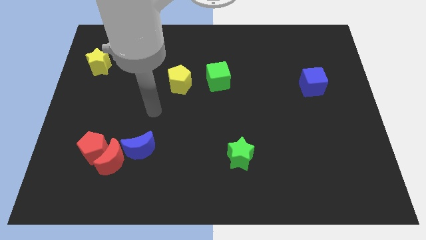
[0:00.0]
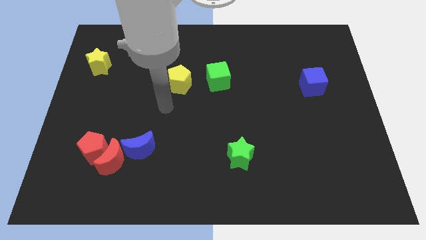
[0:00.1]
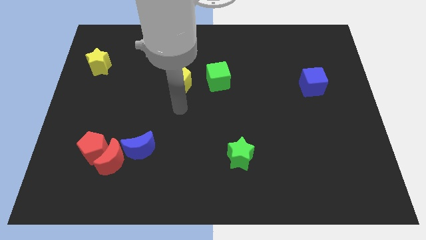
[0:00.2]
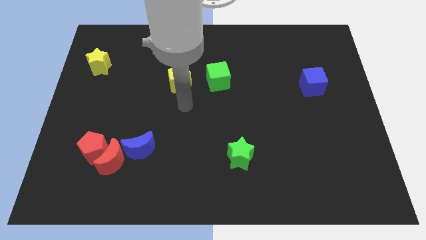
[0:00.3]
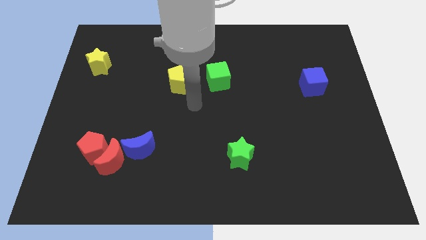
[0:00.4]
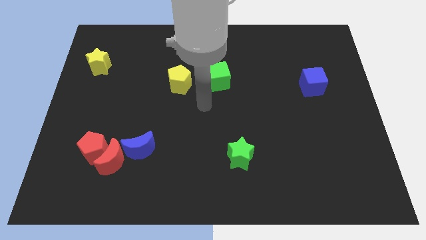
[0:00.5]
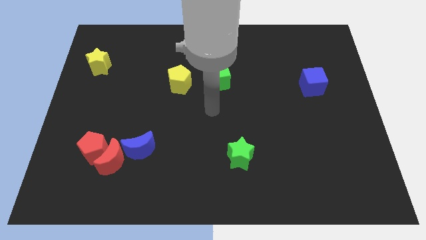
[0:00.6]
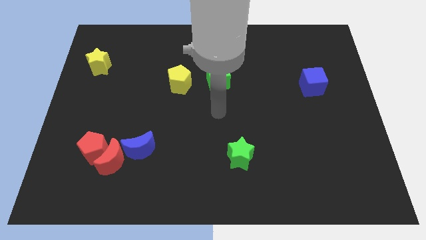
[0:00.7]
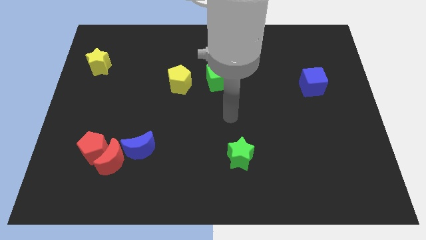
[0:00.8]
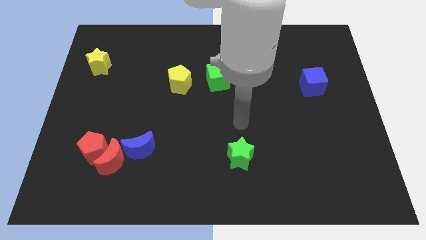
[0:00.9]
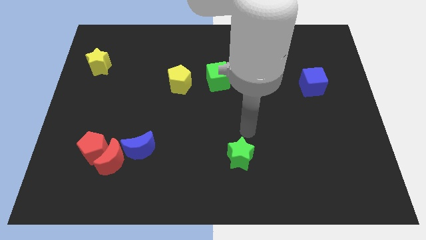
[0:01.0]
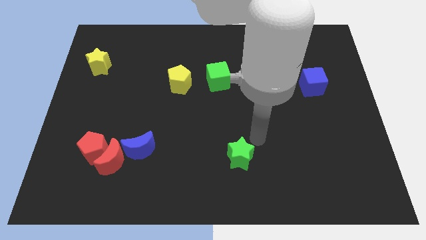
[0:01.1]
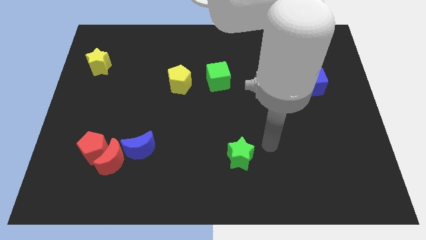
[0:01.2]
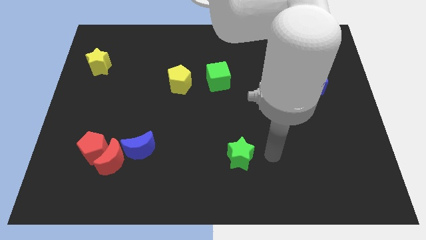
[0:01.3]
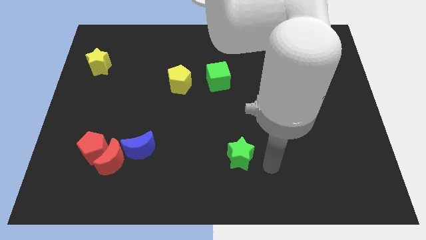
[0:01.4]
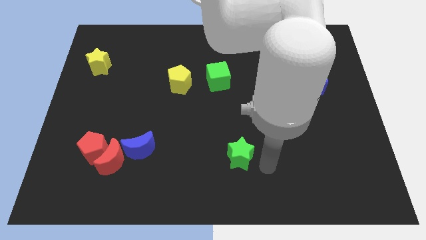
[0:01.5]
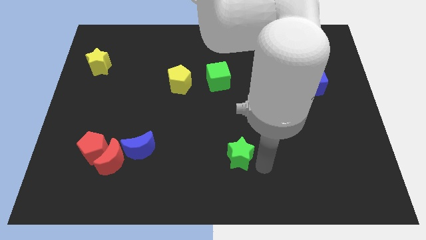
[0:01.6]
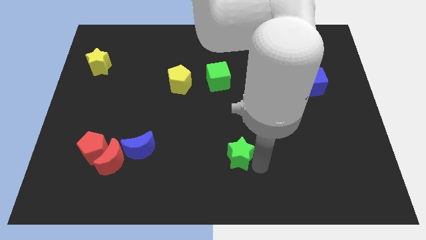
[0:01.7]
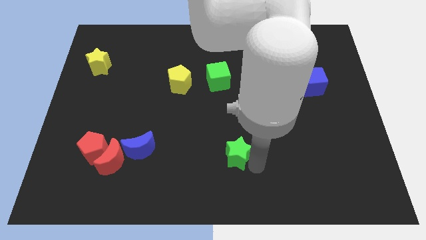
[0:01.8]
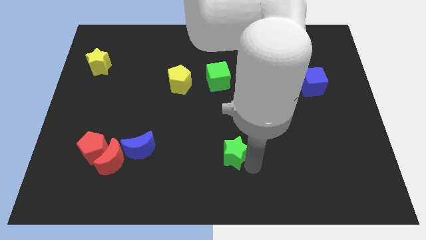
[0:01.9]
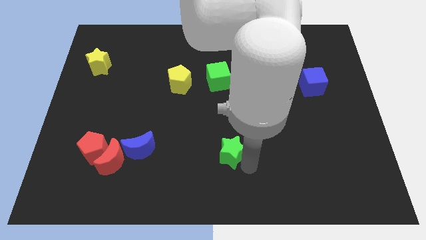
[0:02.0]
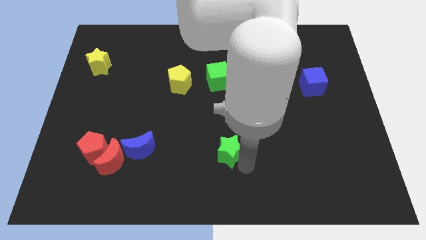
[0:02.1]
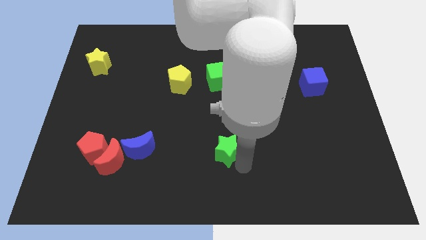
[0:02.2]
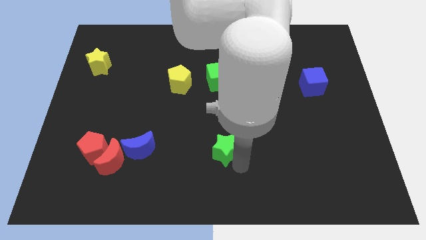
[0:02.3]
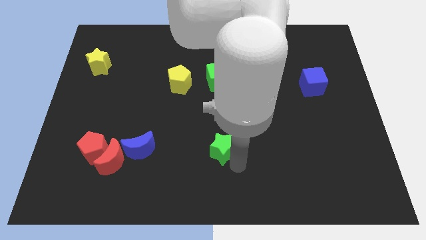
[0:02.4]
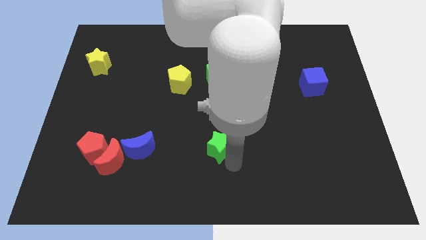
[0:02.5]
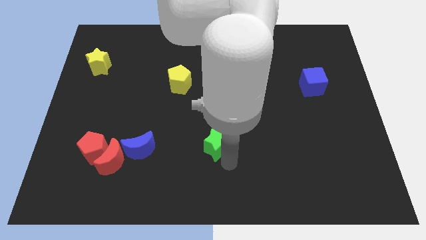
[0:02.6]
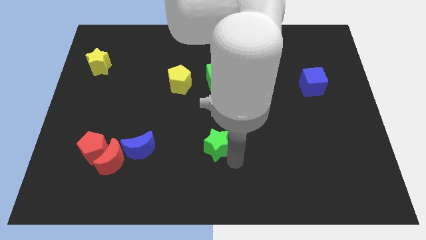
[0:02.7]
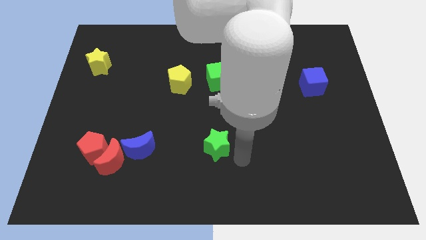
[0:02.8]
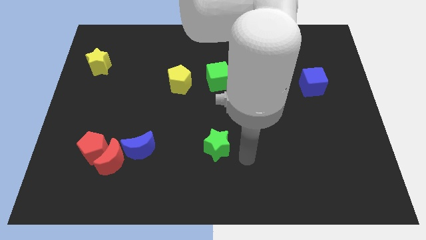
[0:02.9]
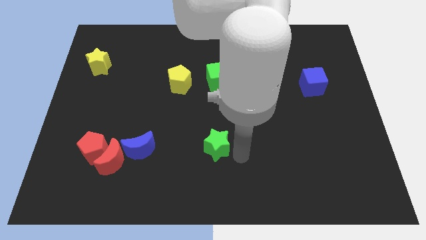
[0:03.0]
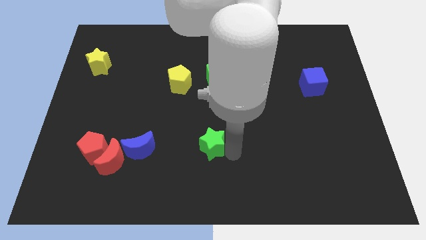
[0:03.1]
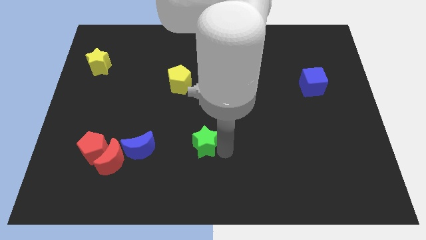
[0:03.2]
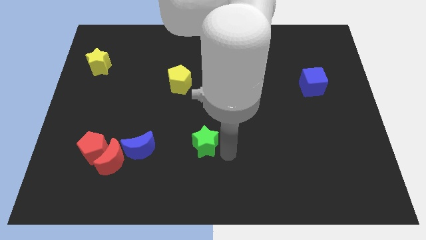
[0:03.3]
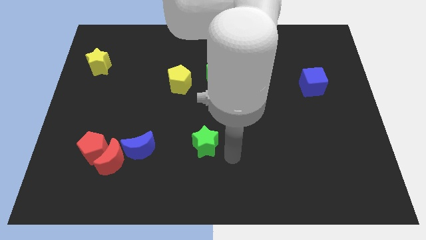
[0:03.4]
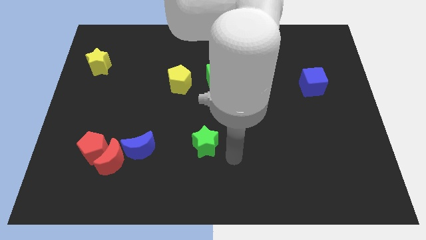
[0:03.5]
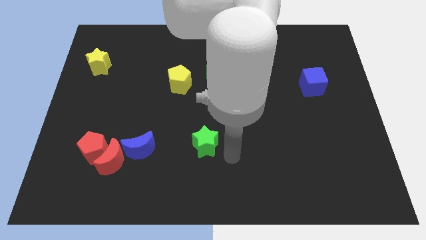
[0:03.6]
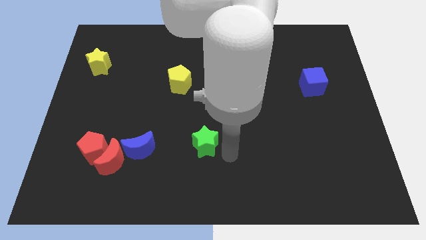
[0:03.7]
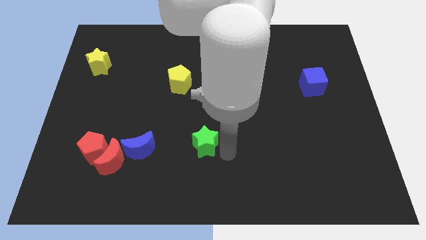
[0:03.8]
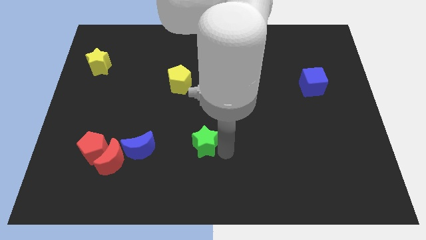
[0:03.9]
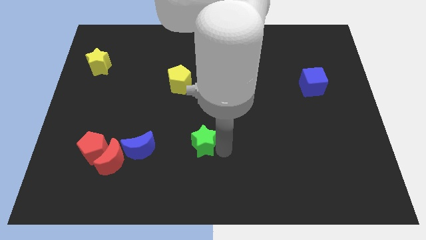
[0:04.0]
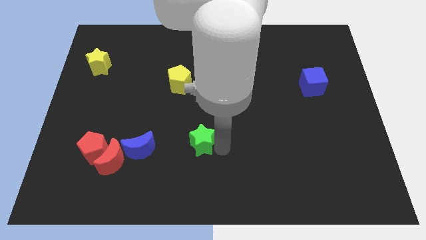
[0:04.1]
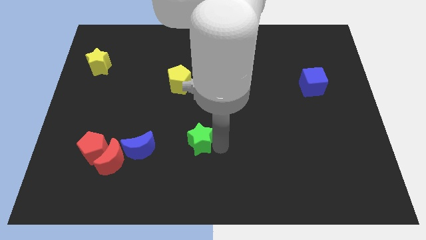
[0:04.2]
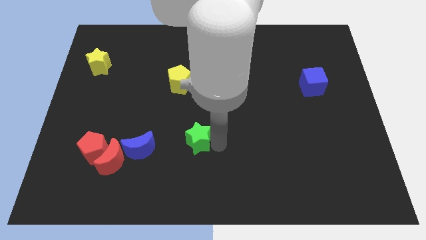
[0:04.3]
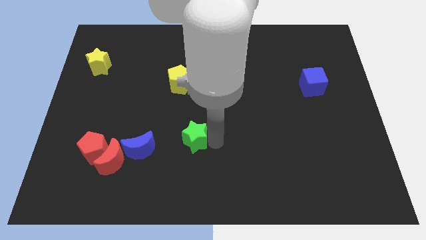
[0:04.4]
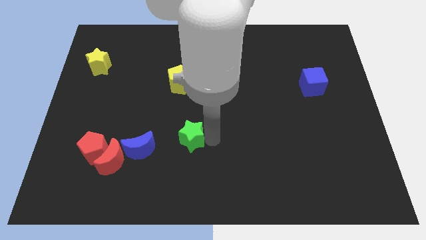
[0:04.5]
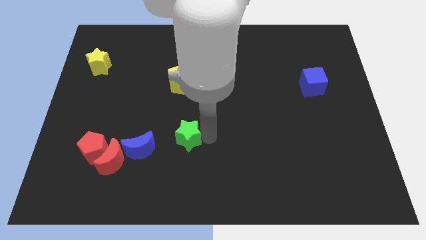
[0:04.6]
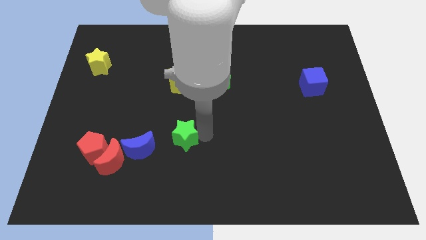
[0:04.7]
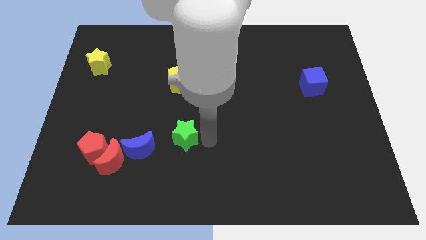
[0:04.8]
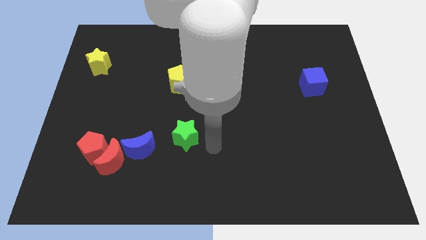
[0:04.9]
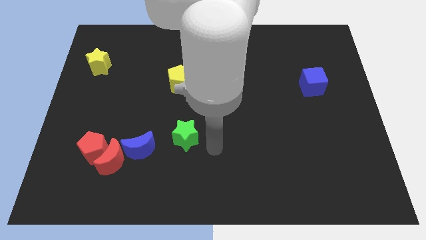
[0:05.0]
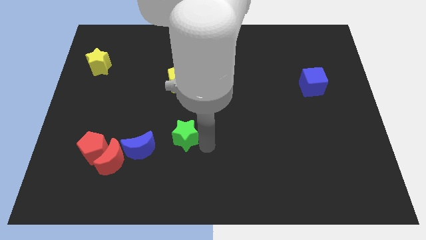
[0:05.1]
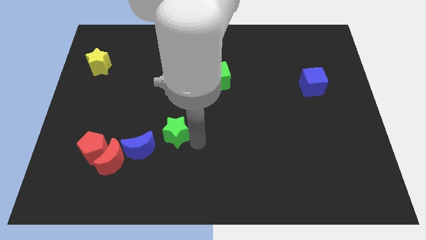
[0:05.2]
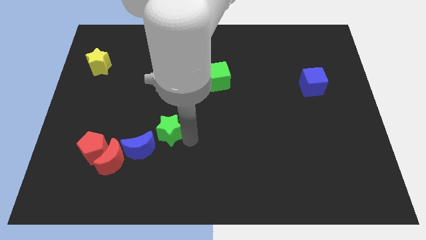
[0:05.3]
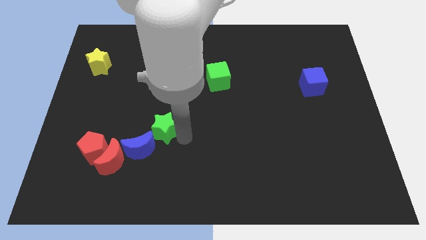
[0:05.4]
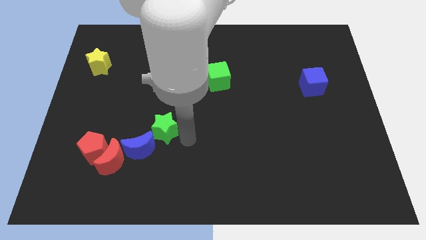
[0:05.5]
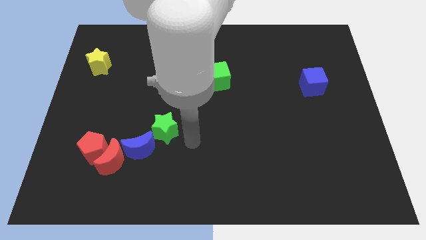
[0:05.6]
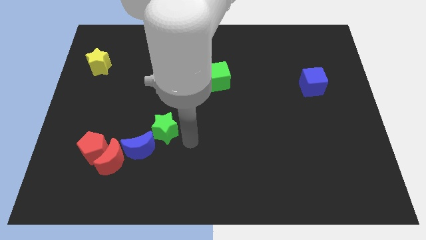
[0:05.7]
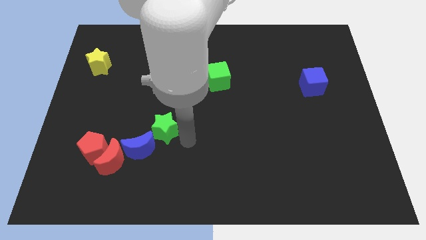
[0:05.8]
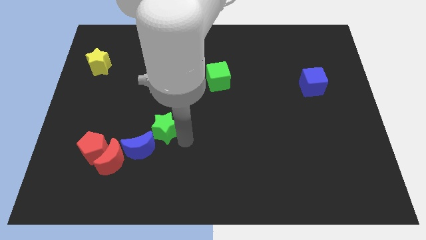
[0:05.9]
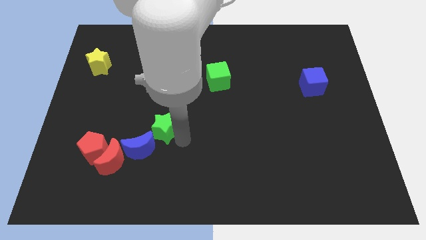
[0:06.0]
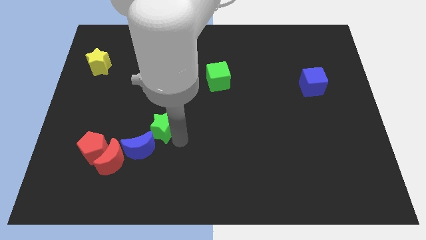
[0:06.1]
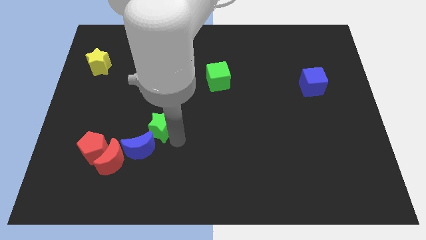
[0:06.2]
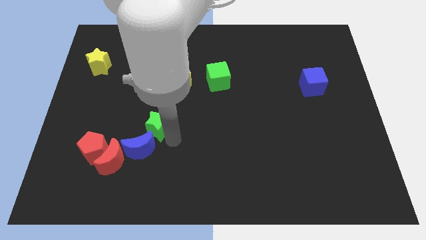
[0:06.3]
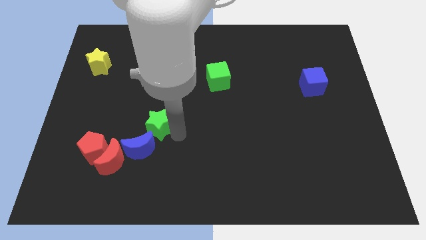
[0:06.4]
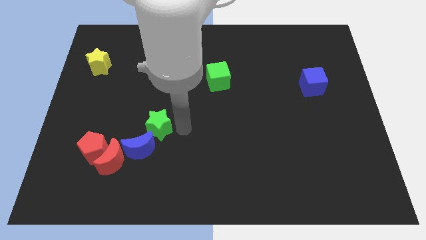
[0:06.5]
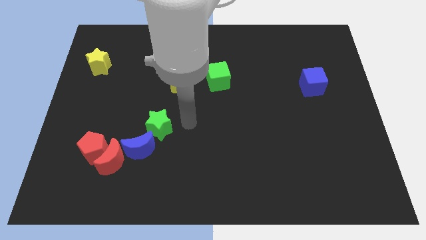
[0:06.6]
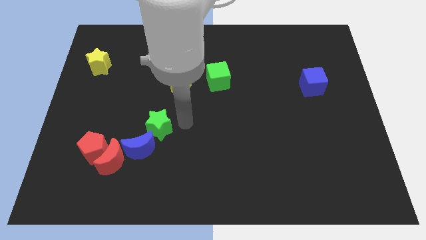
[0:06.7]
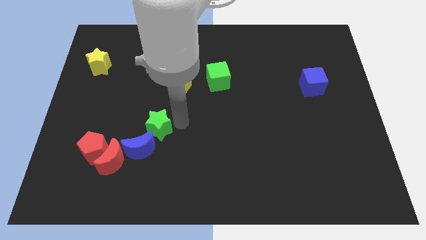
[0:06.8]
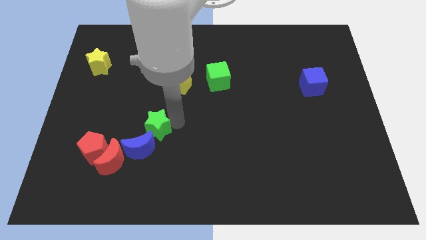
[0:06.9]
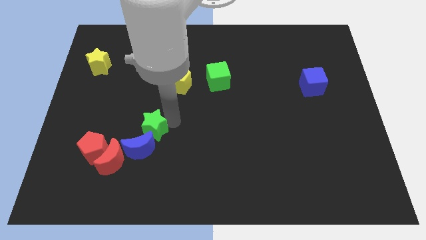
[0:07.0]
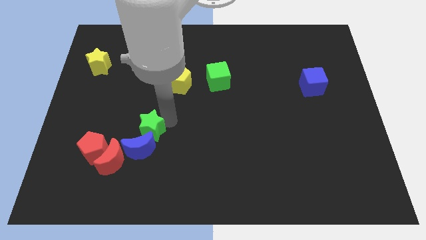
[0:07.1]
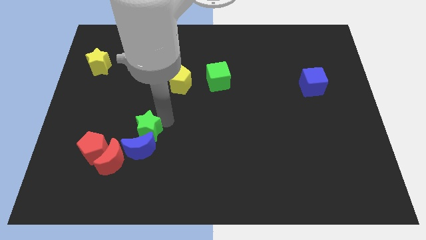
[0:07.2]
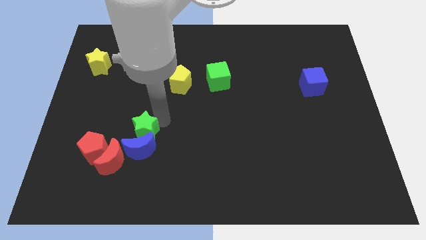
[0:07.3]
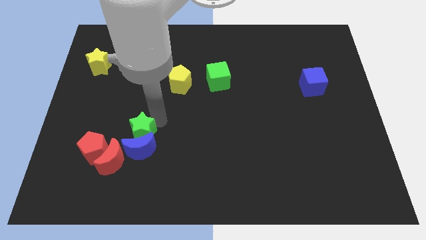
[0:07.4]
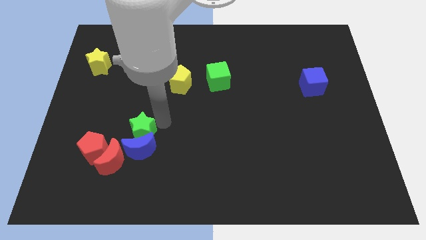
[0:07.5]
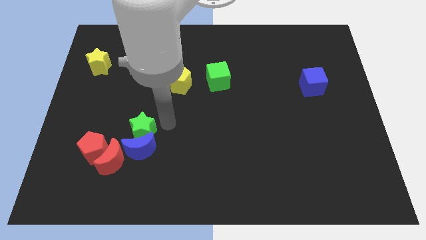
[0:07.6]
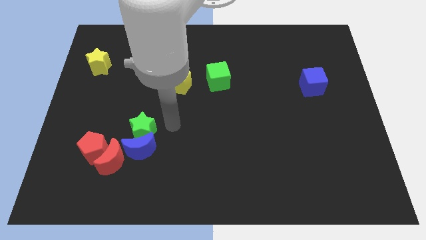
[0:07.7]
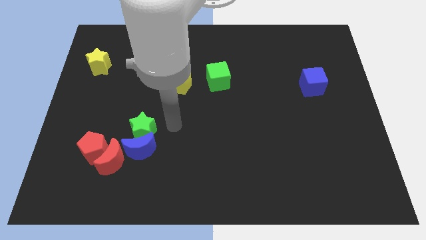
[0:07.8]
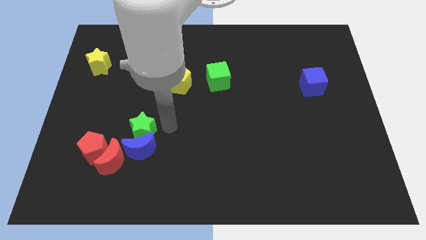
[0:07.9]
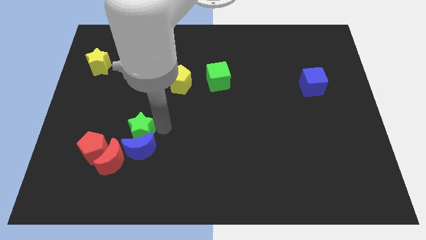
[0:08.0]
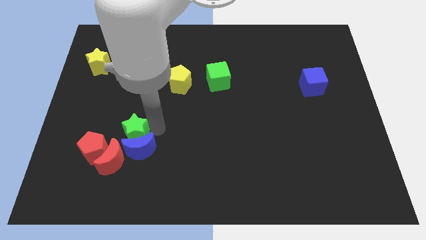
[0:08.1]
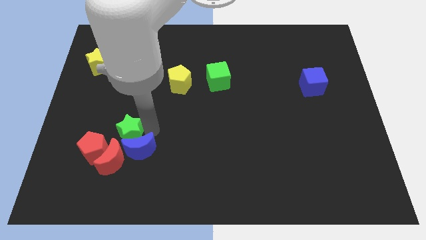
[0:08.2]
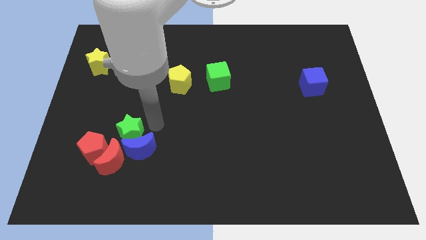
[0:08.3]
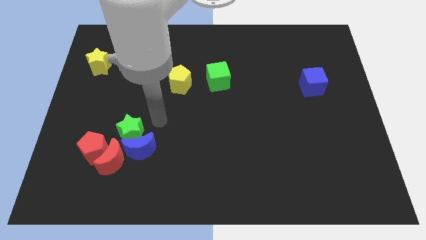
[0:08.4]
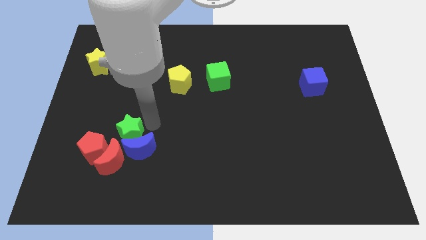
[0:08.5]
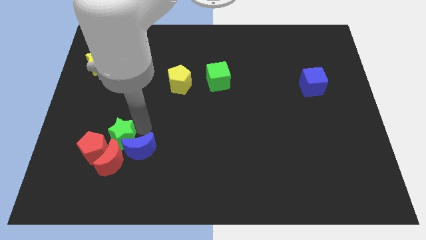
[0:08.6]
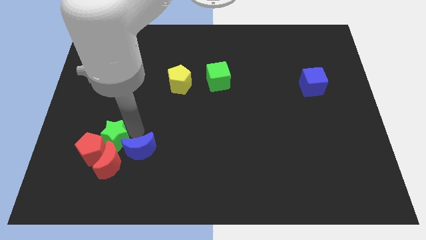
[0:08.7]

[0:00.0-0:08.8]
put the green star close to the red pentagon
